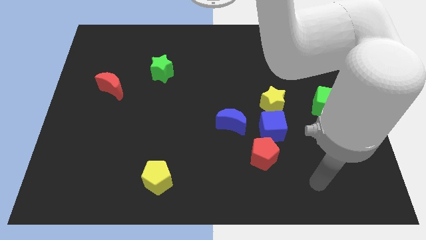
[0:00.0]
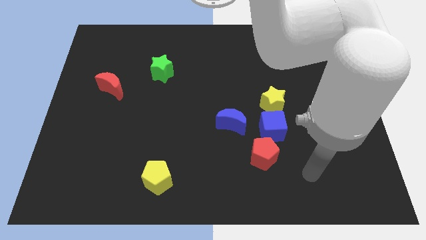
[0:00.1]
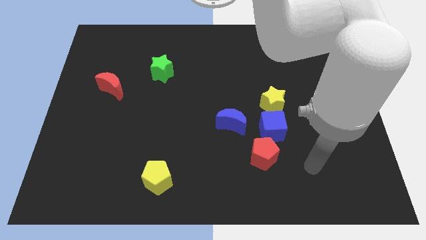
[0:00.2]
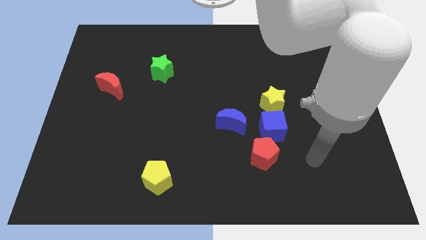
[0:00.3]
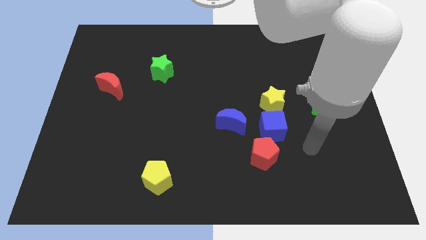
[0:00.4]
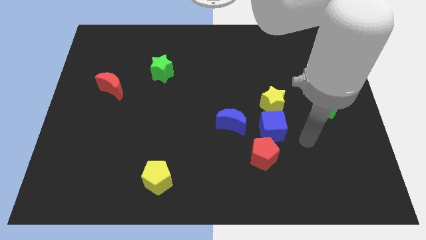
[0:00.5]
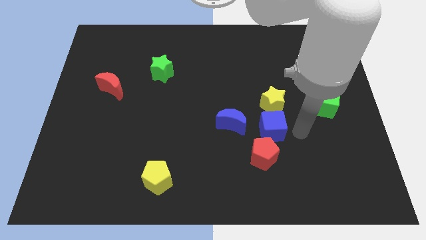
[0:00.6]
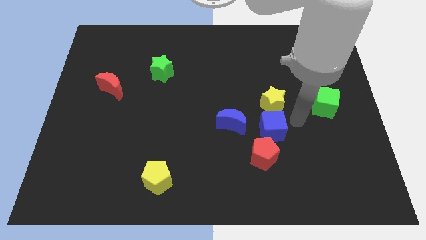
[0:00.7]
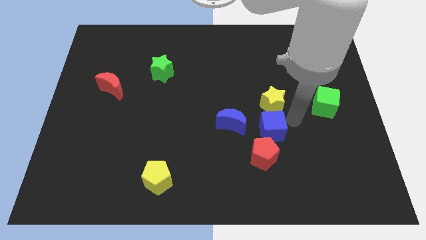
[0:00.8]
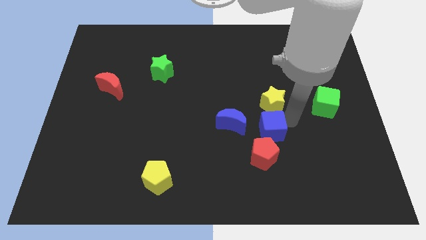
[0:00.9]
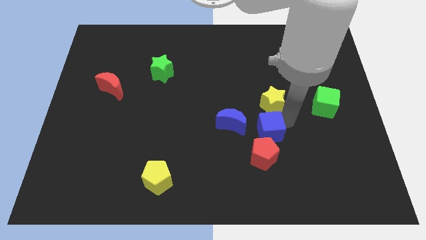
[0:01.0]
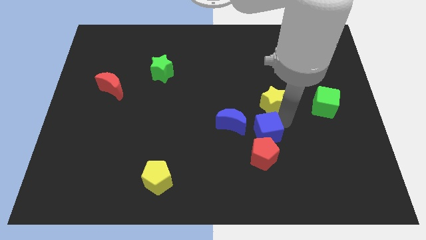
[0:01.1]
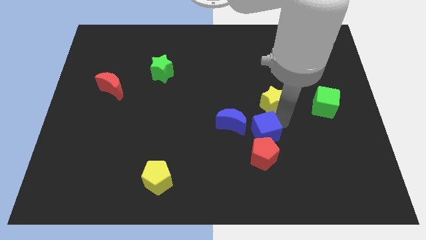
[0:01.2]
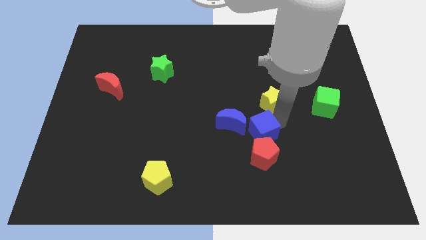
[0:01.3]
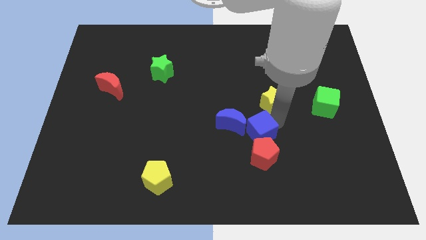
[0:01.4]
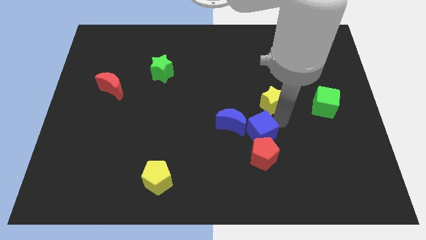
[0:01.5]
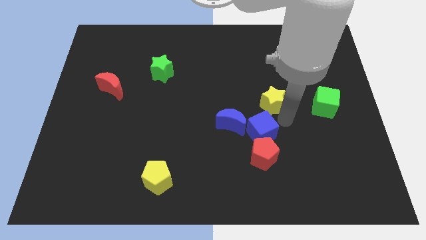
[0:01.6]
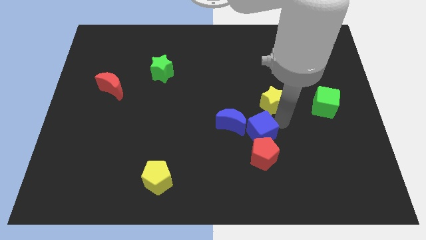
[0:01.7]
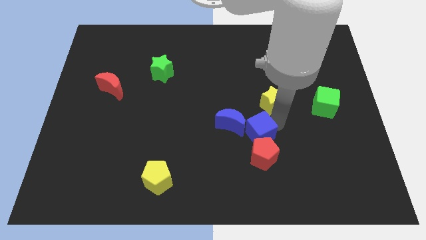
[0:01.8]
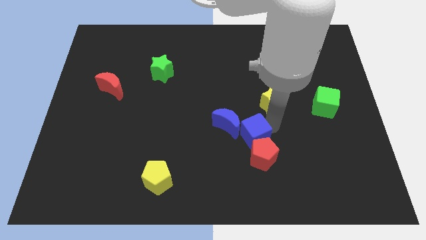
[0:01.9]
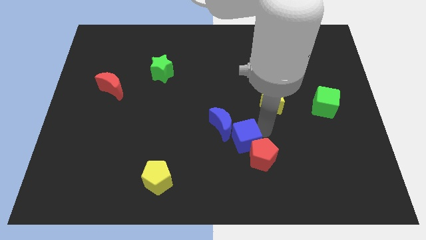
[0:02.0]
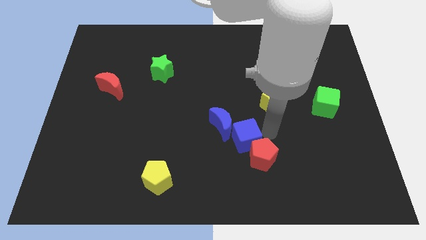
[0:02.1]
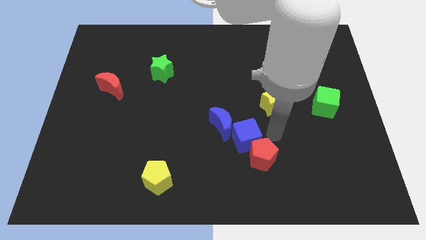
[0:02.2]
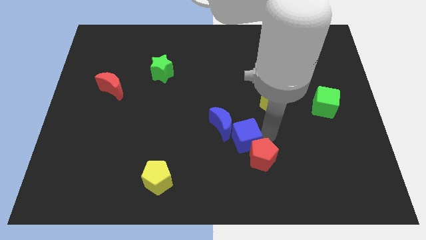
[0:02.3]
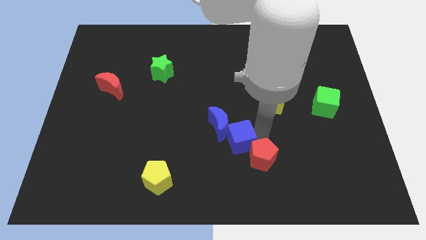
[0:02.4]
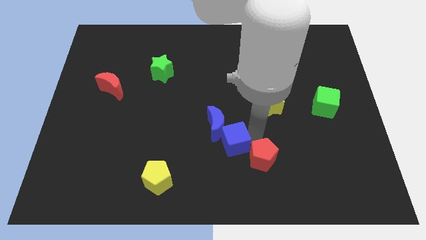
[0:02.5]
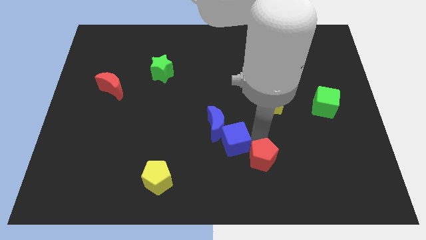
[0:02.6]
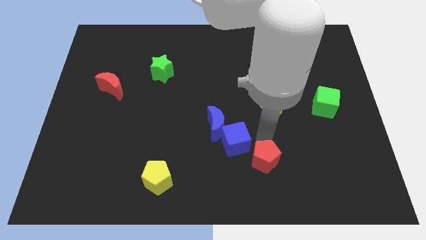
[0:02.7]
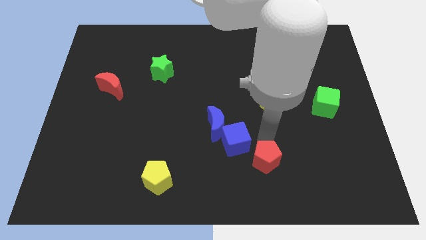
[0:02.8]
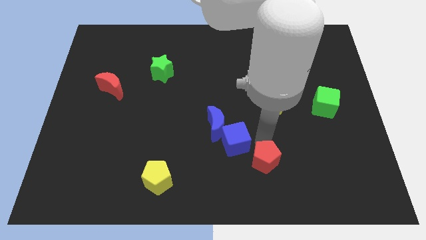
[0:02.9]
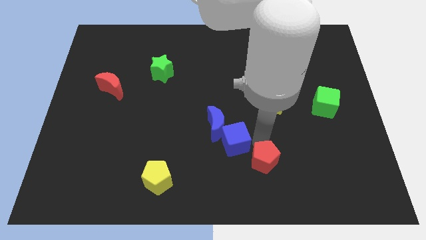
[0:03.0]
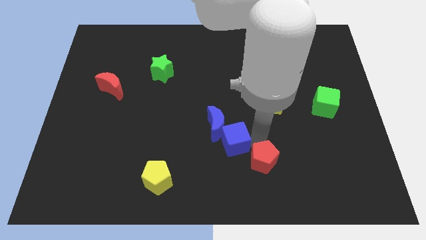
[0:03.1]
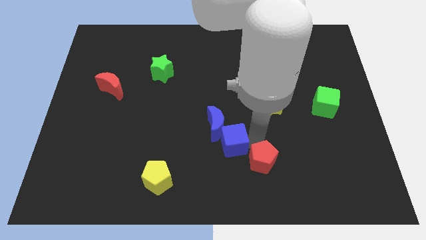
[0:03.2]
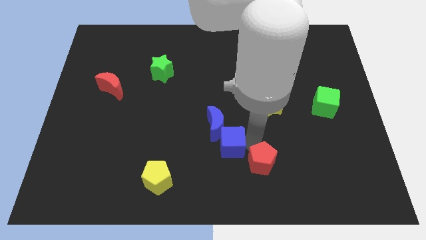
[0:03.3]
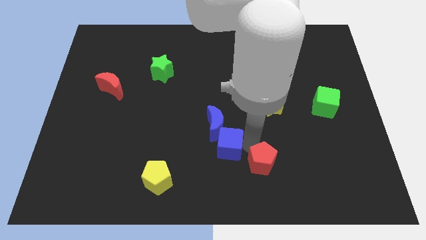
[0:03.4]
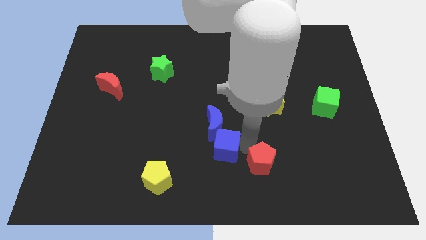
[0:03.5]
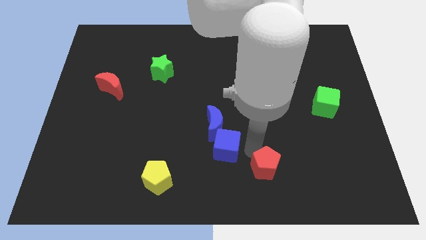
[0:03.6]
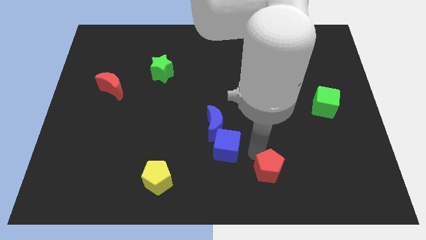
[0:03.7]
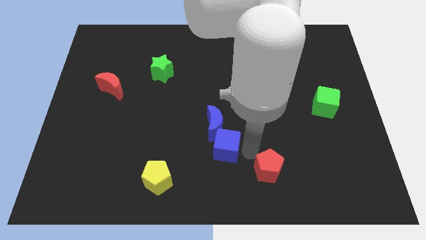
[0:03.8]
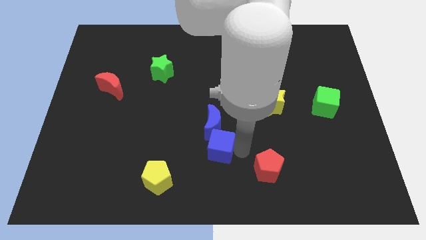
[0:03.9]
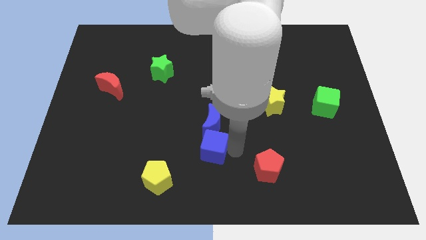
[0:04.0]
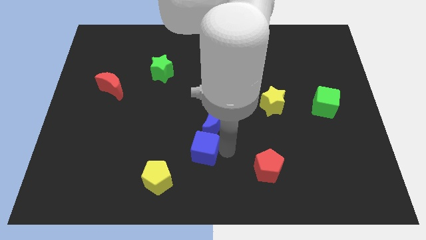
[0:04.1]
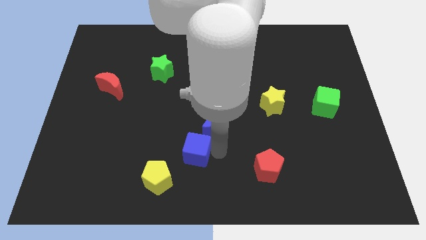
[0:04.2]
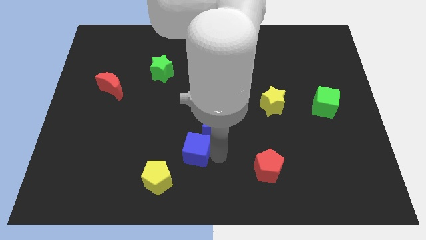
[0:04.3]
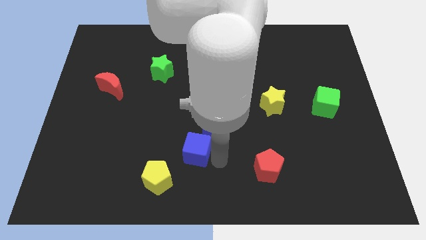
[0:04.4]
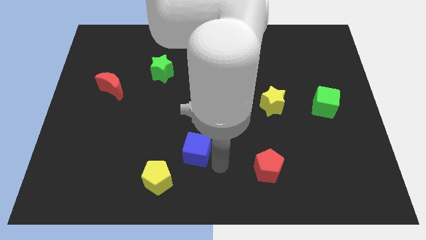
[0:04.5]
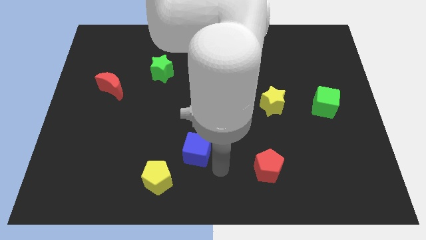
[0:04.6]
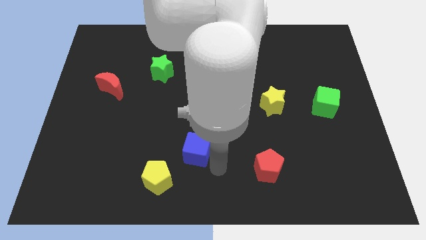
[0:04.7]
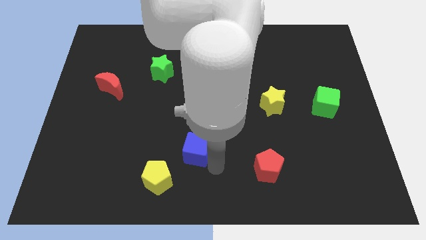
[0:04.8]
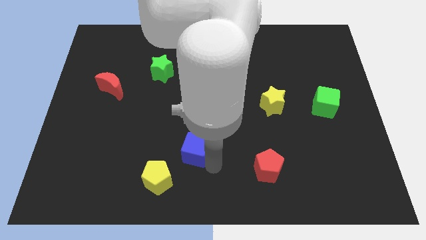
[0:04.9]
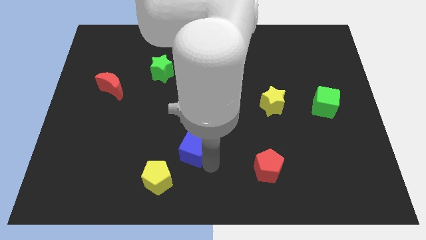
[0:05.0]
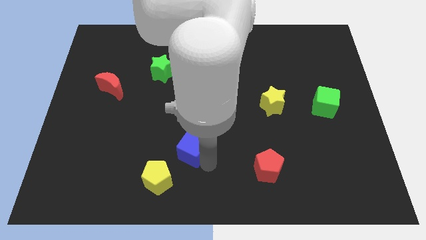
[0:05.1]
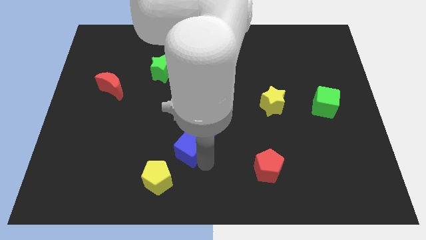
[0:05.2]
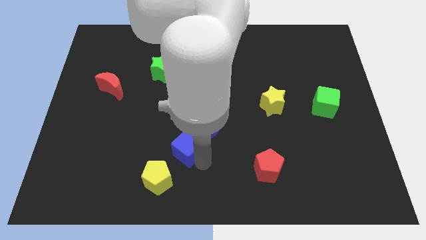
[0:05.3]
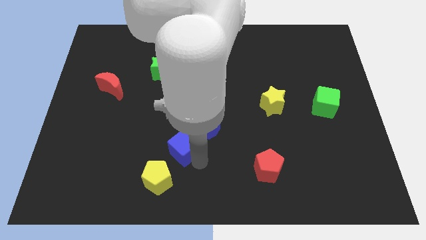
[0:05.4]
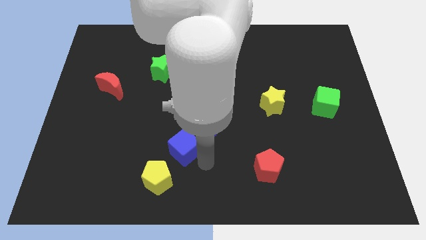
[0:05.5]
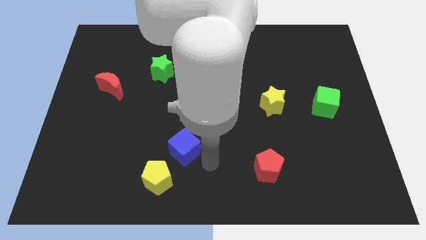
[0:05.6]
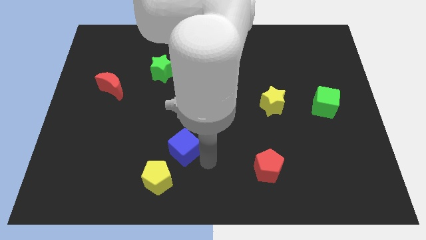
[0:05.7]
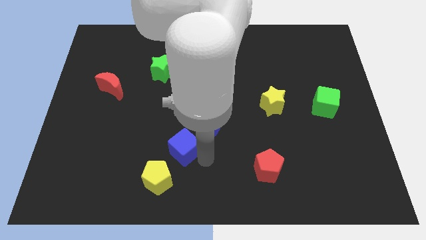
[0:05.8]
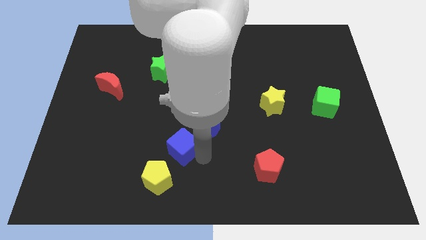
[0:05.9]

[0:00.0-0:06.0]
move the blue cube above the yellow pentagon

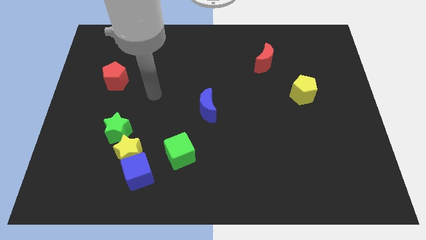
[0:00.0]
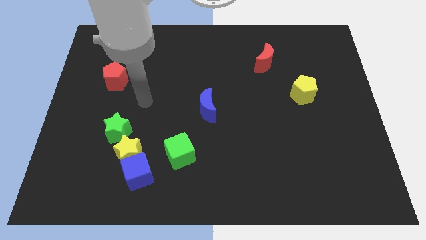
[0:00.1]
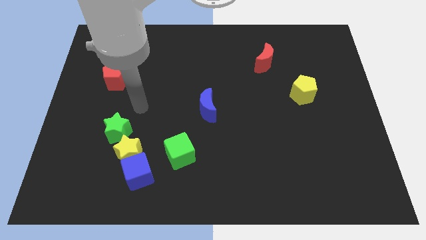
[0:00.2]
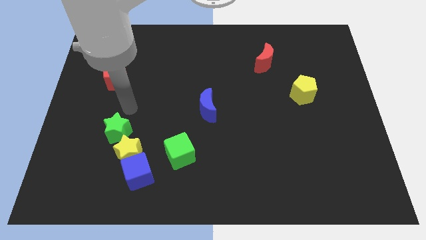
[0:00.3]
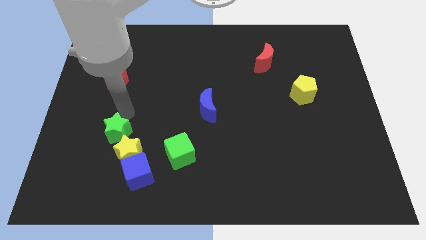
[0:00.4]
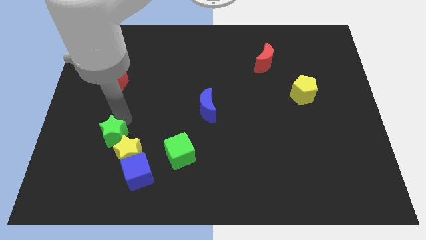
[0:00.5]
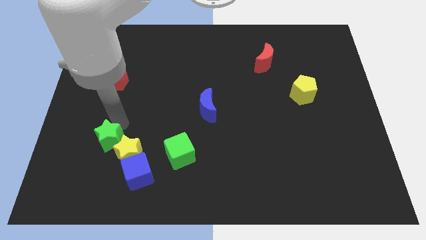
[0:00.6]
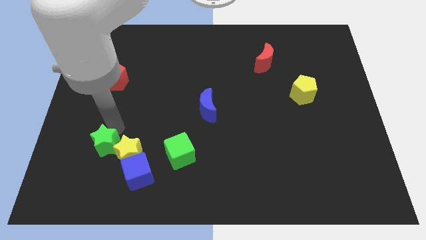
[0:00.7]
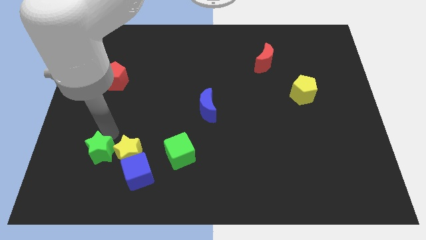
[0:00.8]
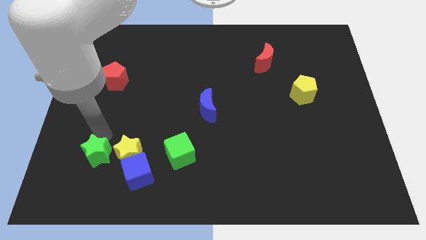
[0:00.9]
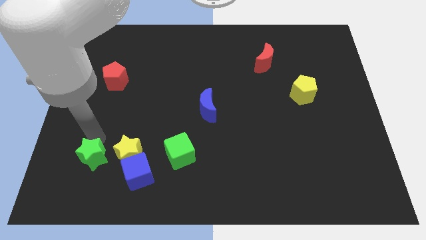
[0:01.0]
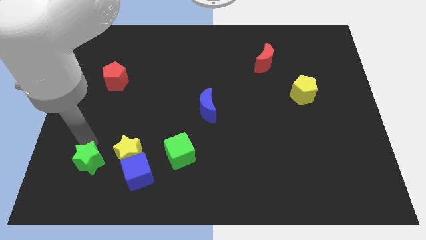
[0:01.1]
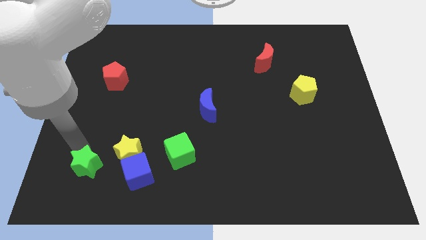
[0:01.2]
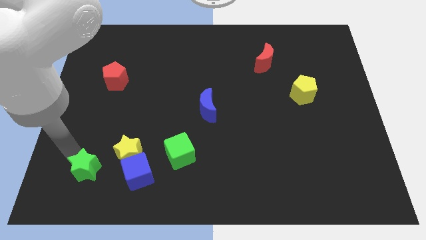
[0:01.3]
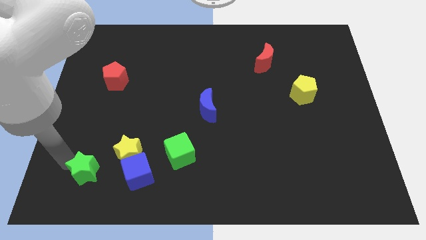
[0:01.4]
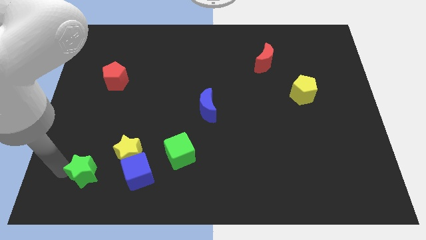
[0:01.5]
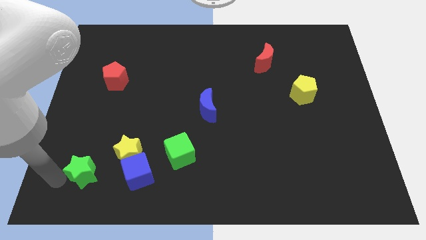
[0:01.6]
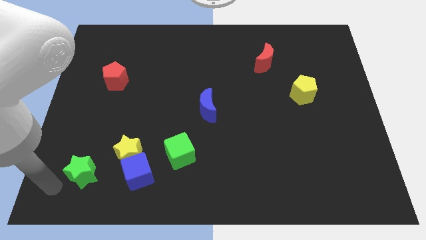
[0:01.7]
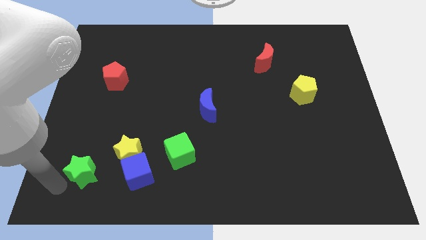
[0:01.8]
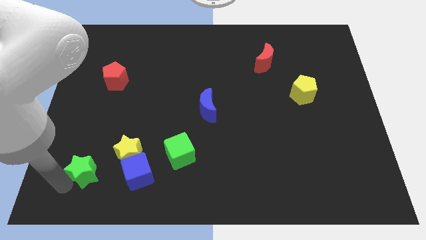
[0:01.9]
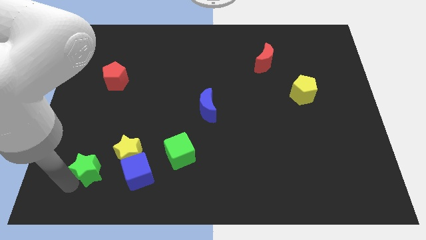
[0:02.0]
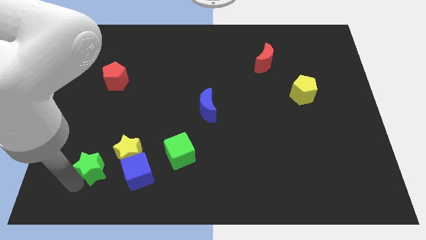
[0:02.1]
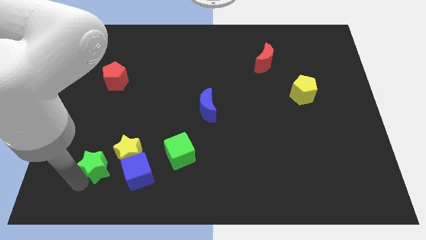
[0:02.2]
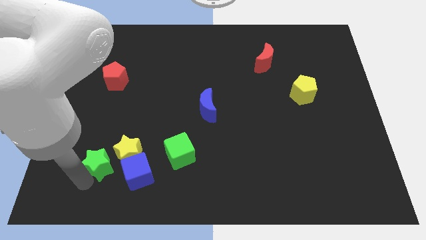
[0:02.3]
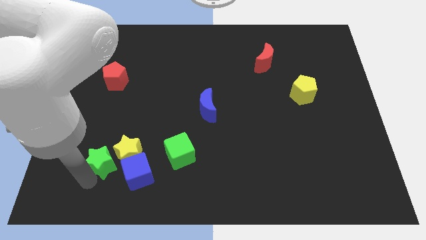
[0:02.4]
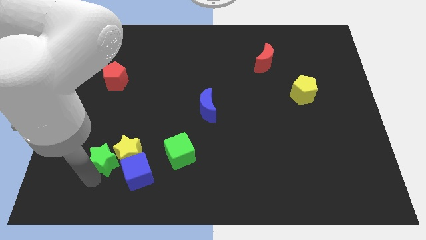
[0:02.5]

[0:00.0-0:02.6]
slide the green star just left of the green cube
